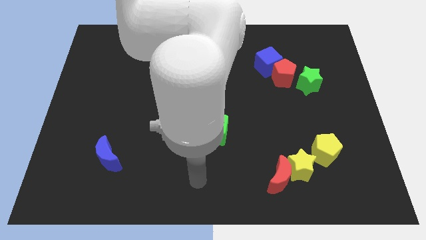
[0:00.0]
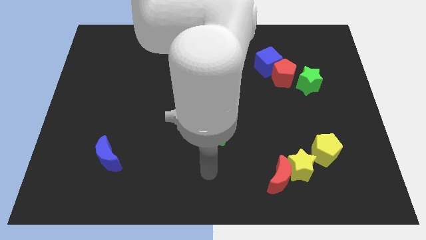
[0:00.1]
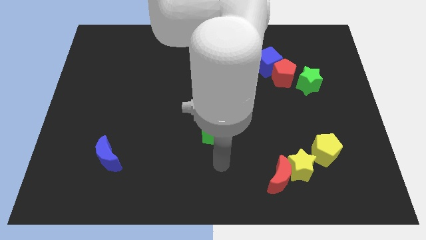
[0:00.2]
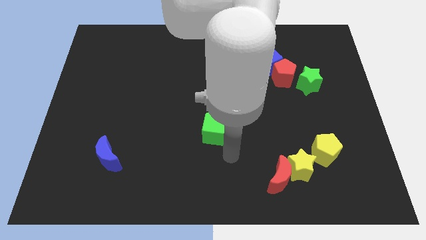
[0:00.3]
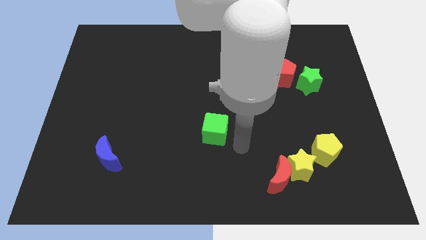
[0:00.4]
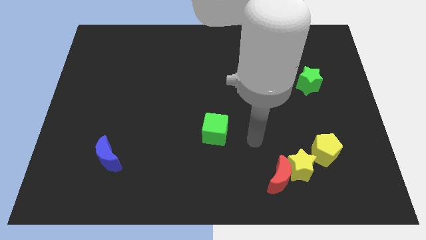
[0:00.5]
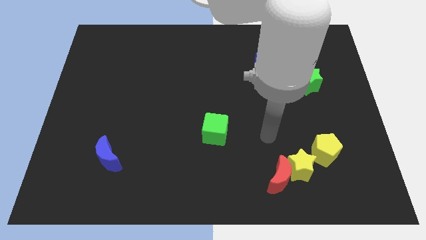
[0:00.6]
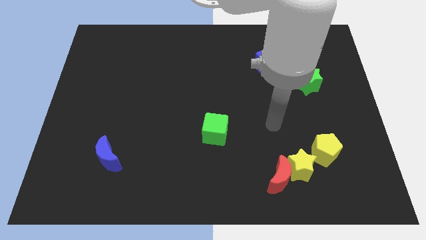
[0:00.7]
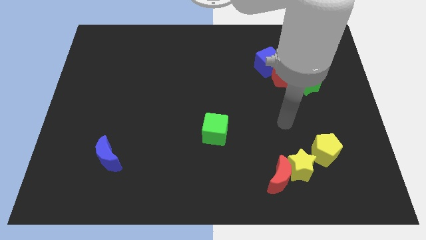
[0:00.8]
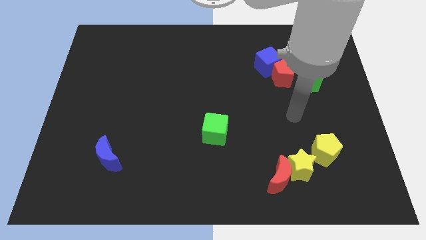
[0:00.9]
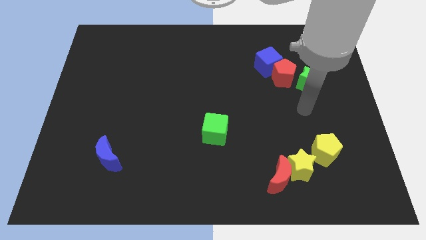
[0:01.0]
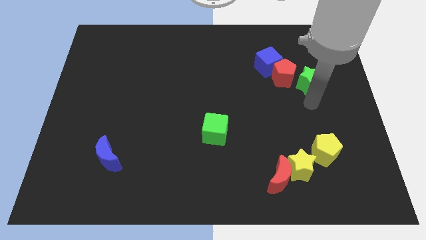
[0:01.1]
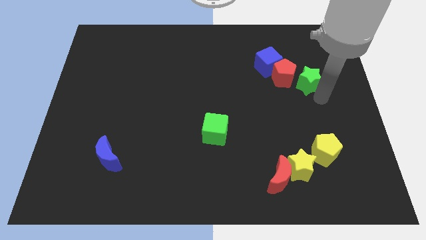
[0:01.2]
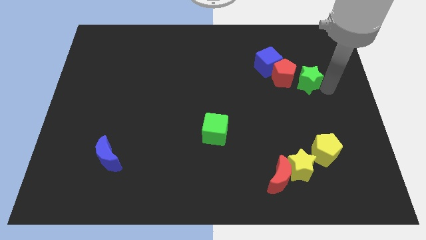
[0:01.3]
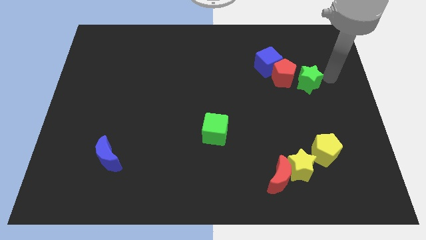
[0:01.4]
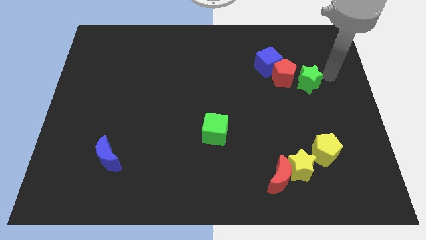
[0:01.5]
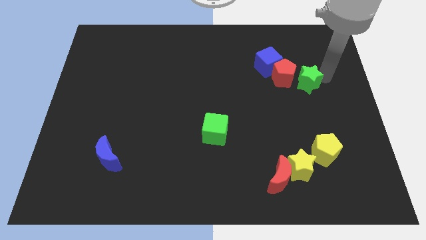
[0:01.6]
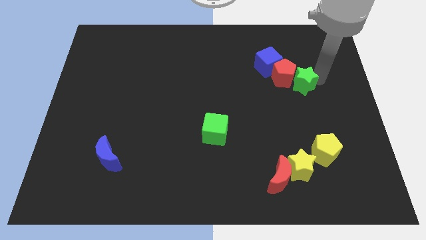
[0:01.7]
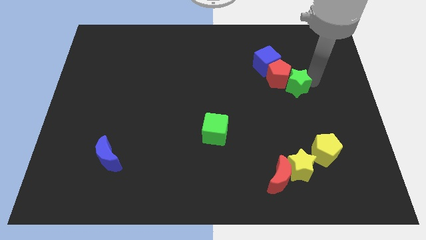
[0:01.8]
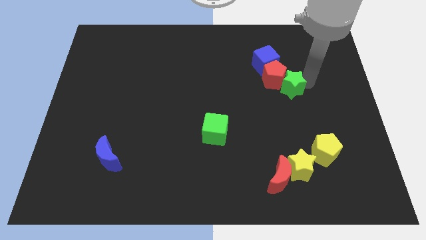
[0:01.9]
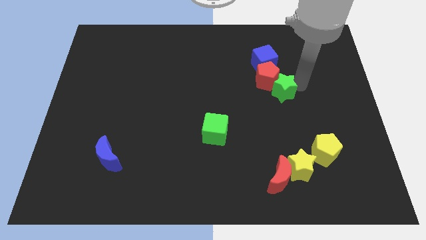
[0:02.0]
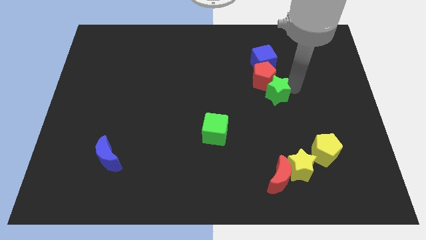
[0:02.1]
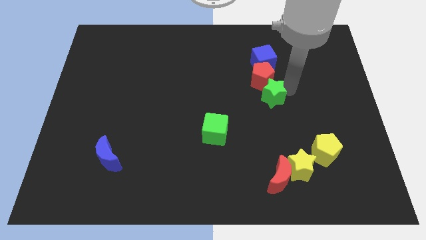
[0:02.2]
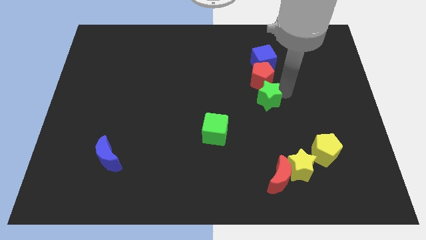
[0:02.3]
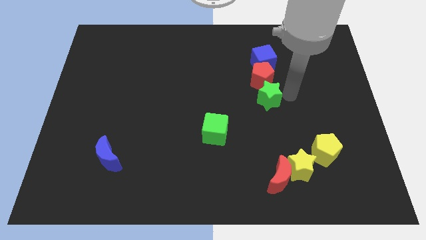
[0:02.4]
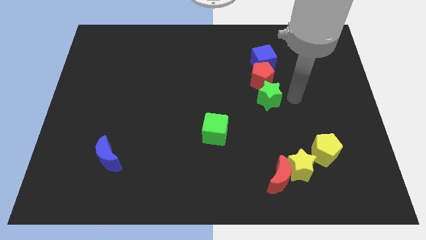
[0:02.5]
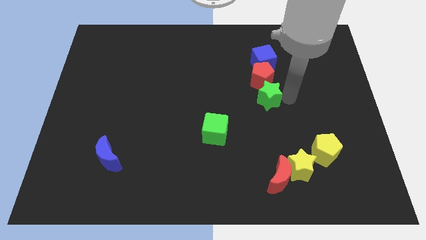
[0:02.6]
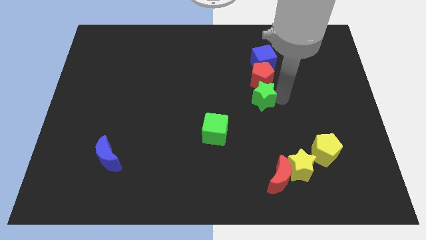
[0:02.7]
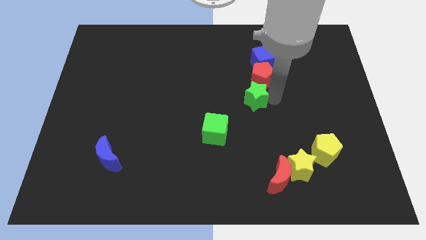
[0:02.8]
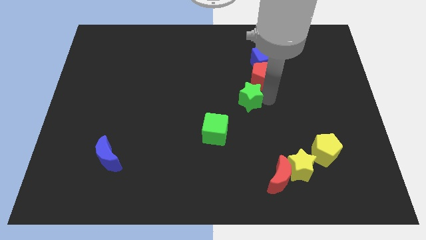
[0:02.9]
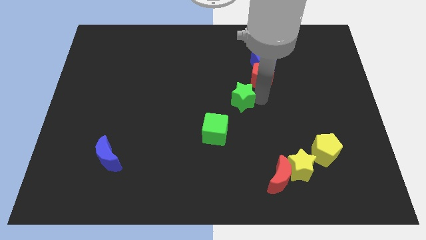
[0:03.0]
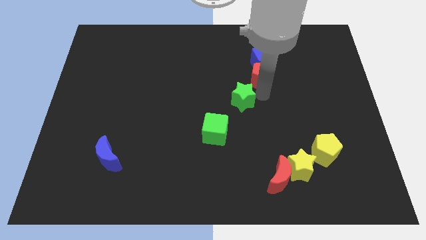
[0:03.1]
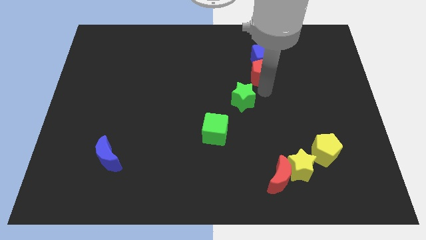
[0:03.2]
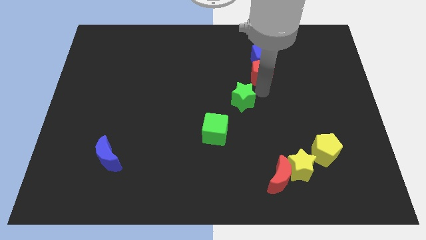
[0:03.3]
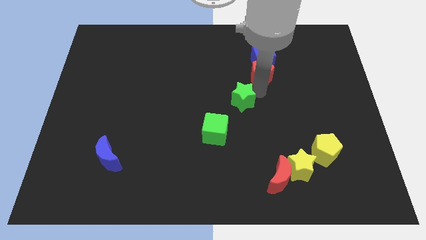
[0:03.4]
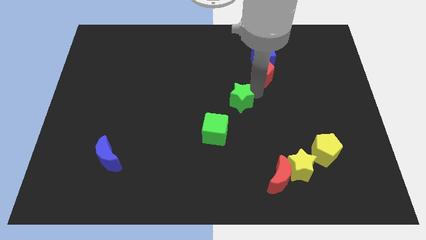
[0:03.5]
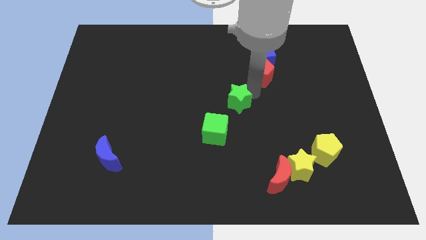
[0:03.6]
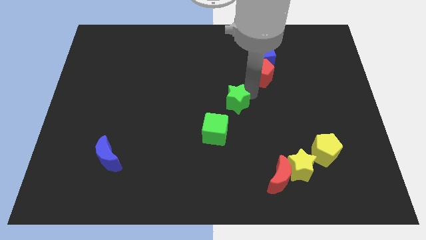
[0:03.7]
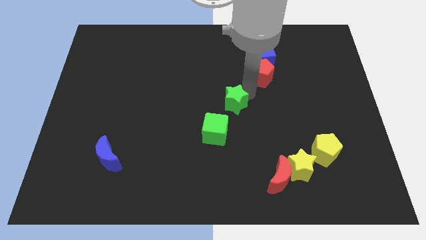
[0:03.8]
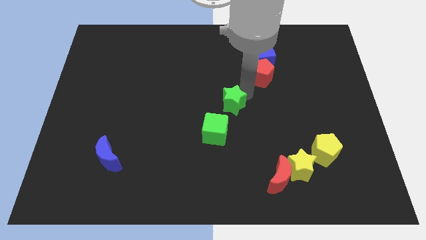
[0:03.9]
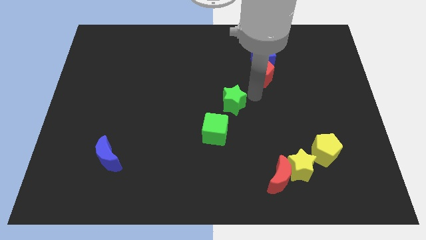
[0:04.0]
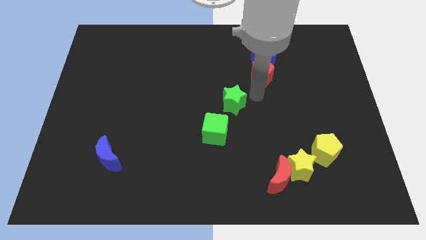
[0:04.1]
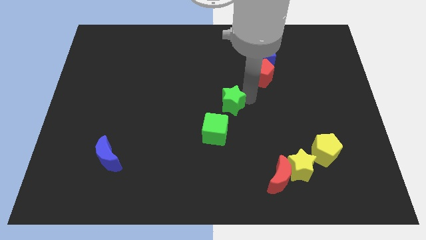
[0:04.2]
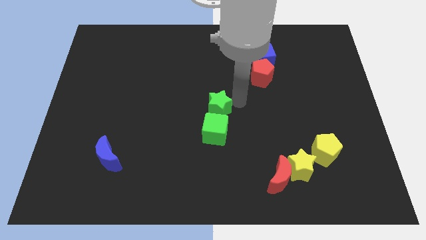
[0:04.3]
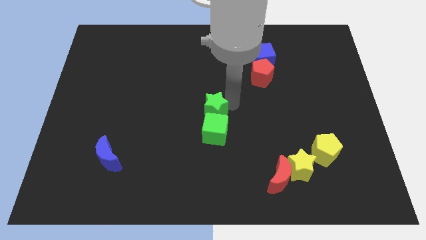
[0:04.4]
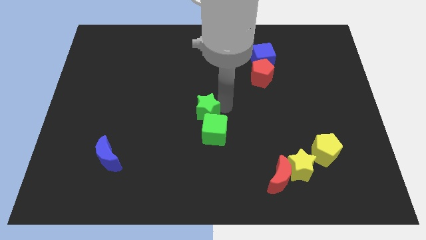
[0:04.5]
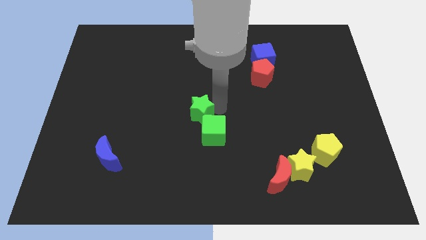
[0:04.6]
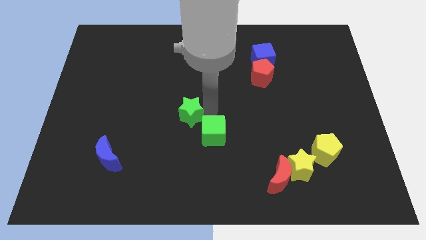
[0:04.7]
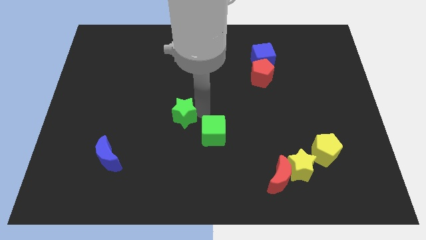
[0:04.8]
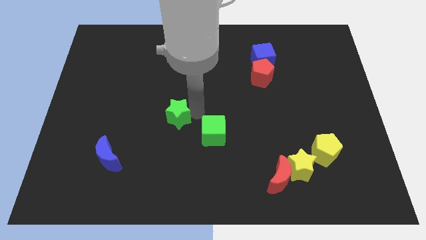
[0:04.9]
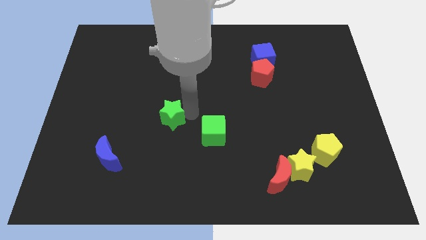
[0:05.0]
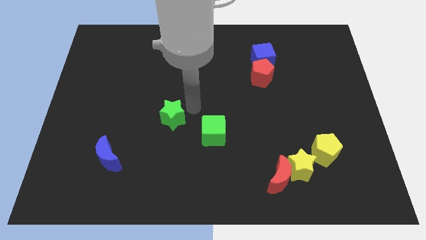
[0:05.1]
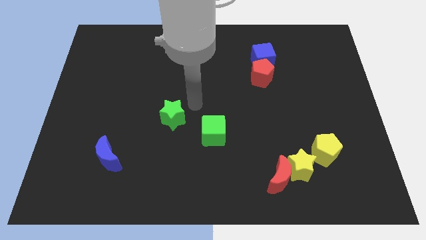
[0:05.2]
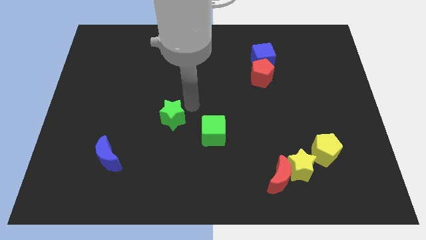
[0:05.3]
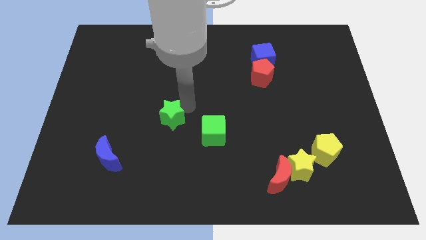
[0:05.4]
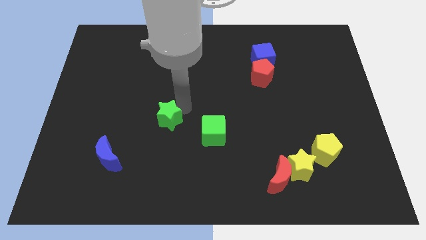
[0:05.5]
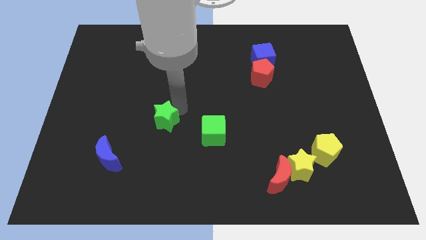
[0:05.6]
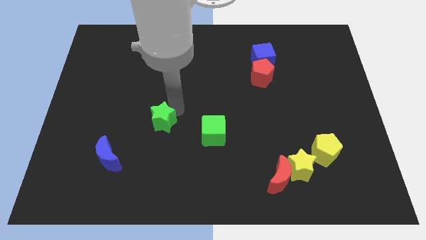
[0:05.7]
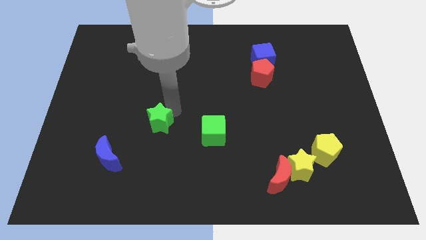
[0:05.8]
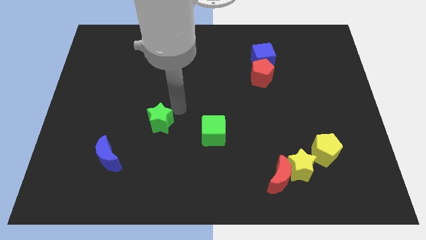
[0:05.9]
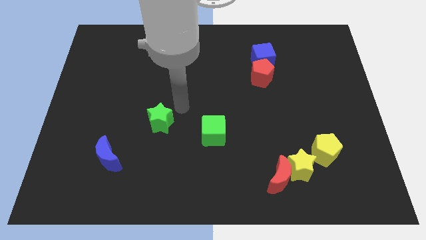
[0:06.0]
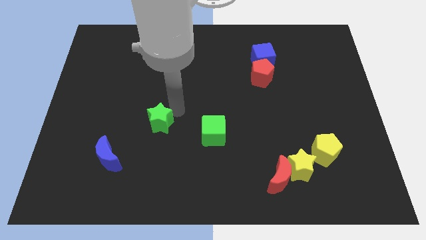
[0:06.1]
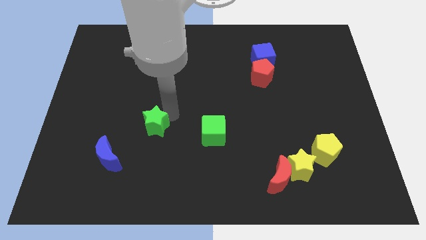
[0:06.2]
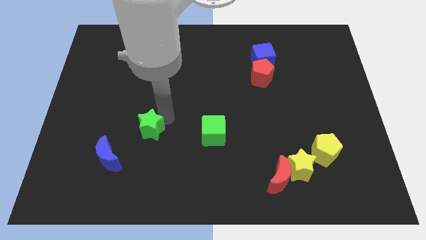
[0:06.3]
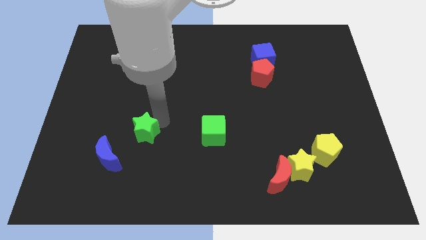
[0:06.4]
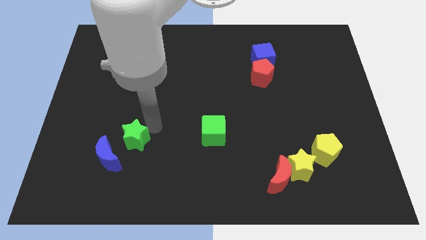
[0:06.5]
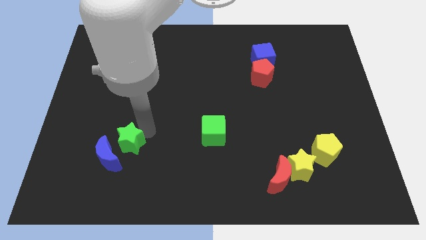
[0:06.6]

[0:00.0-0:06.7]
put the green star close to the blue moon
